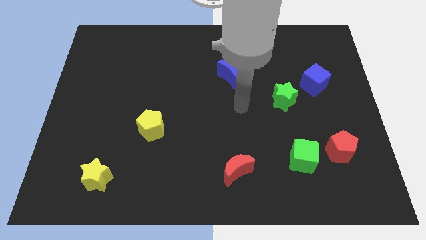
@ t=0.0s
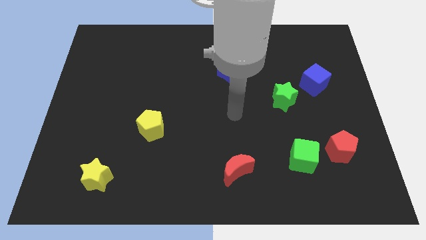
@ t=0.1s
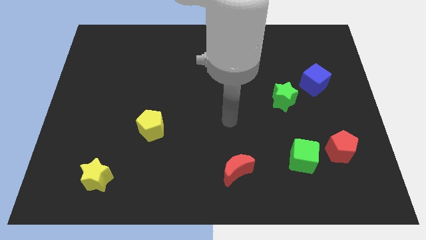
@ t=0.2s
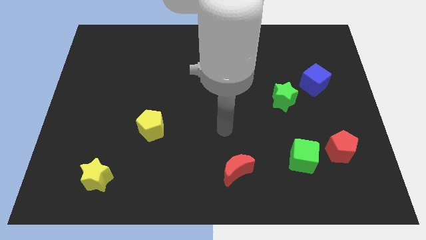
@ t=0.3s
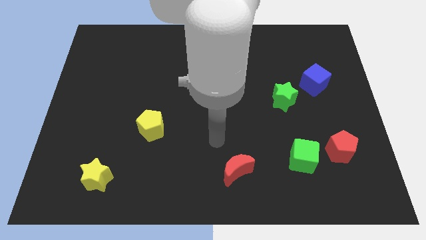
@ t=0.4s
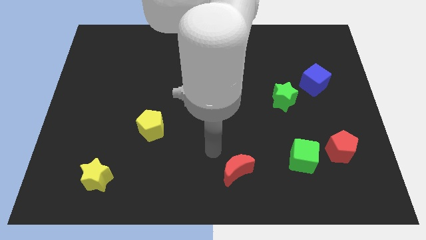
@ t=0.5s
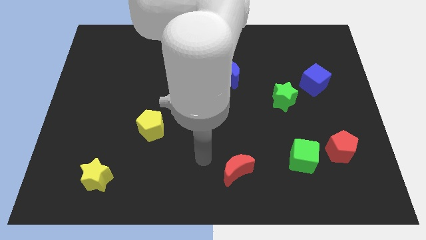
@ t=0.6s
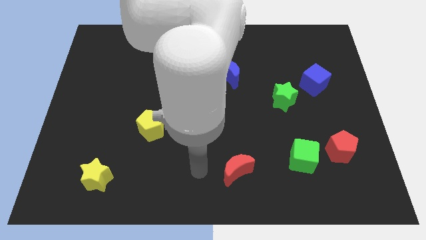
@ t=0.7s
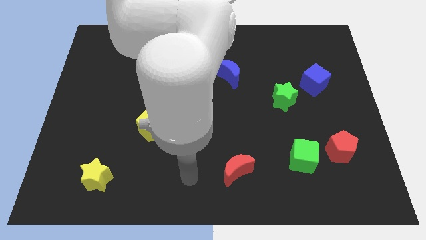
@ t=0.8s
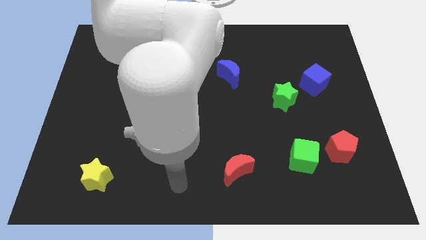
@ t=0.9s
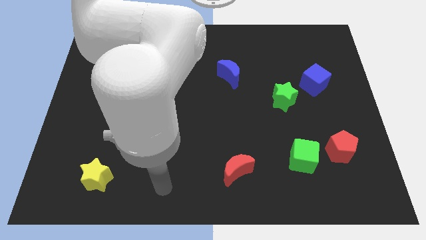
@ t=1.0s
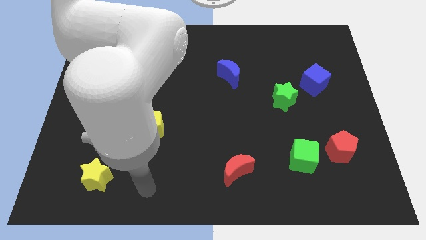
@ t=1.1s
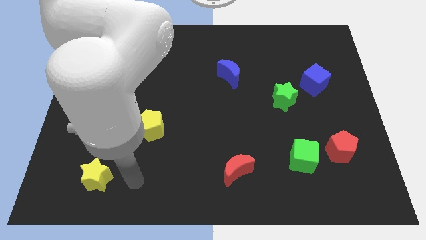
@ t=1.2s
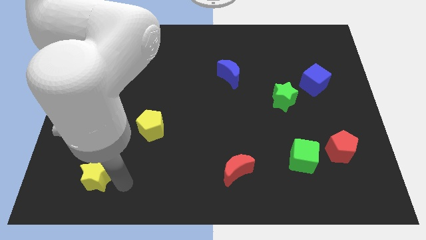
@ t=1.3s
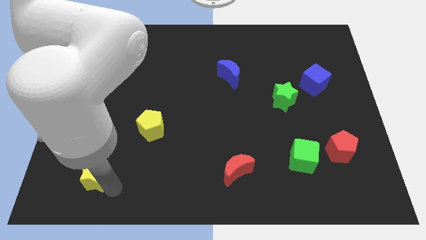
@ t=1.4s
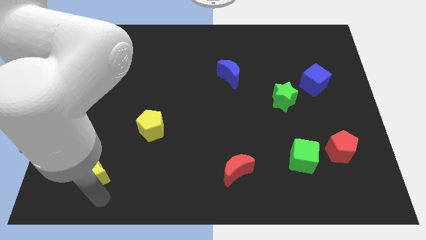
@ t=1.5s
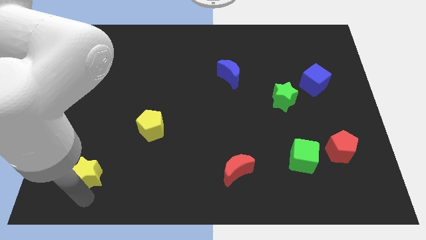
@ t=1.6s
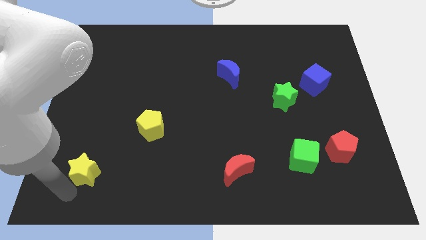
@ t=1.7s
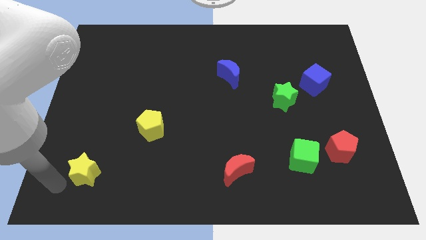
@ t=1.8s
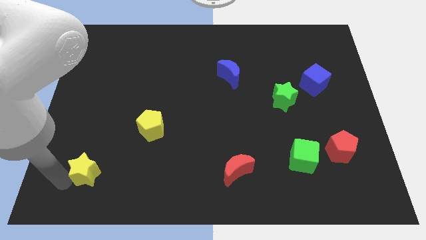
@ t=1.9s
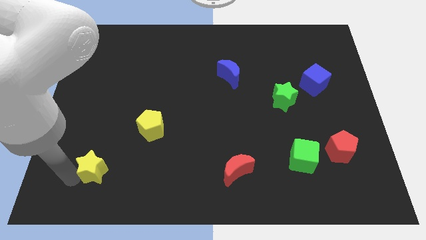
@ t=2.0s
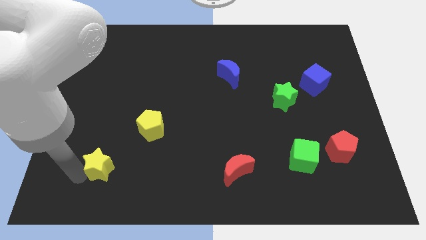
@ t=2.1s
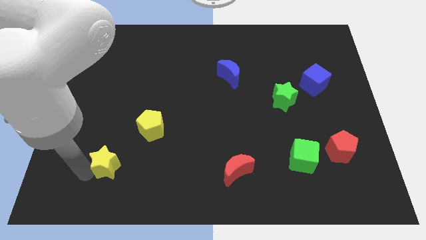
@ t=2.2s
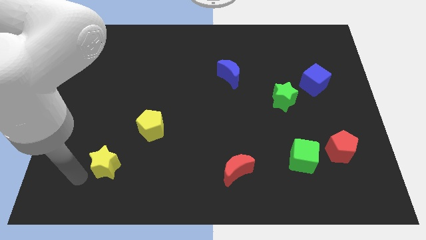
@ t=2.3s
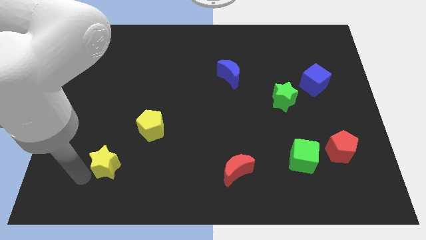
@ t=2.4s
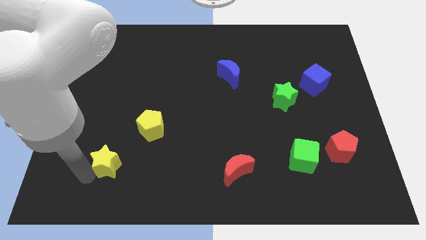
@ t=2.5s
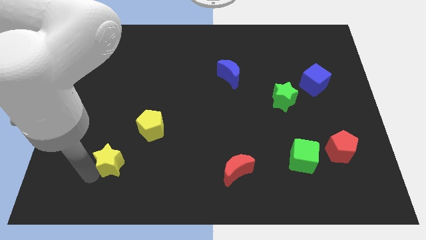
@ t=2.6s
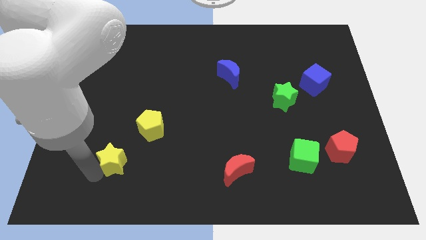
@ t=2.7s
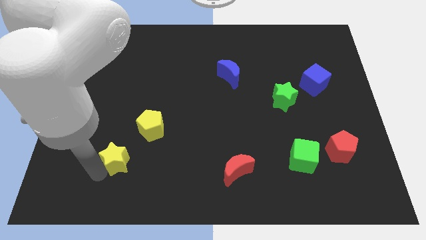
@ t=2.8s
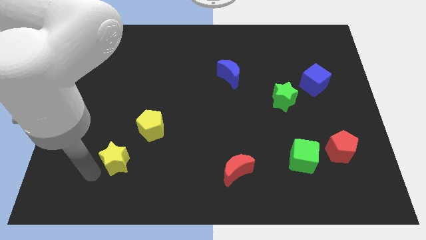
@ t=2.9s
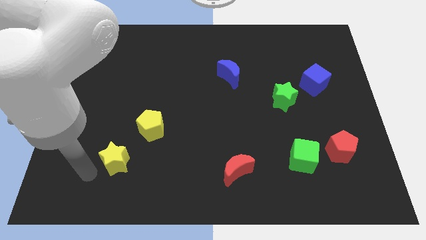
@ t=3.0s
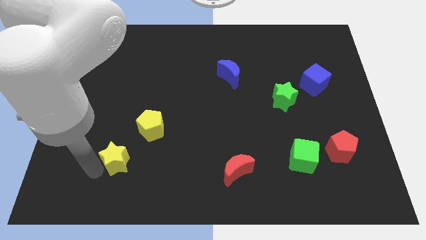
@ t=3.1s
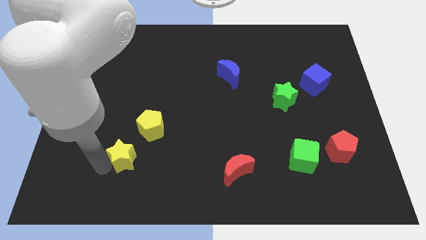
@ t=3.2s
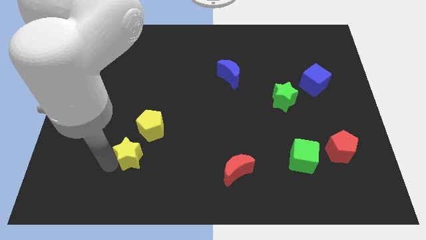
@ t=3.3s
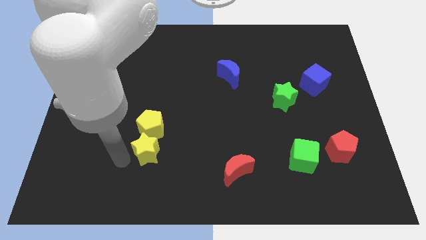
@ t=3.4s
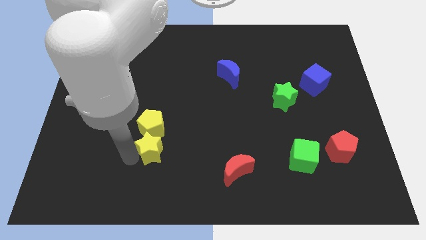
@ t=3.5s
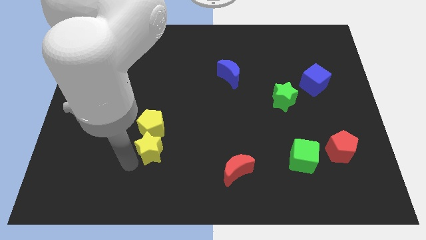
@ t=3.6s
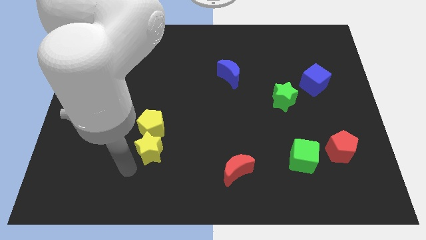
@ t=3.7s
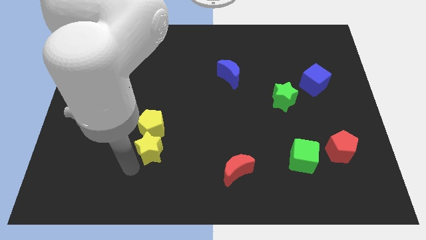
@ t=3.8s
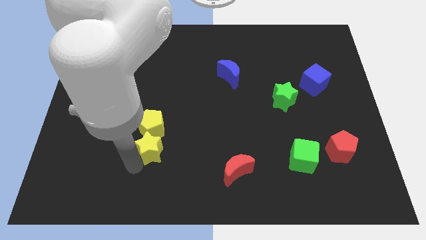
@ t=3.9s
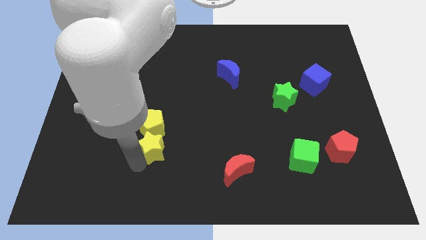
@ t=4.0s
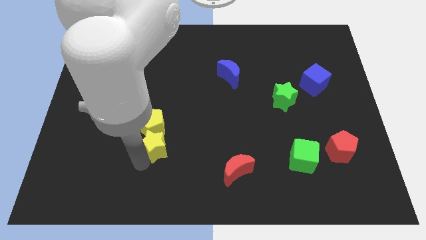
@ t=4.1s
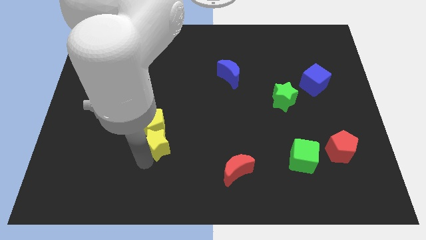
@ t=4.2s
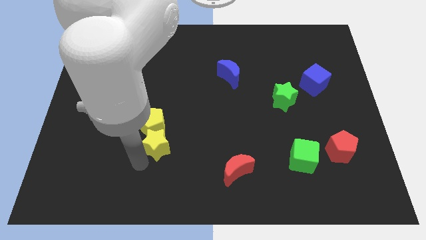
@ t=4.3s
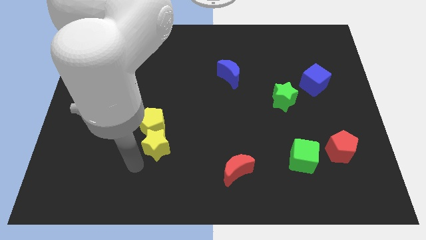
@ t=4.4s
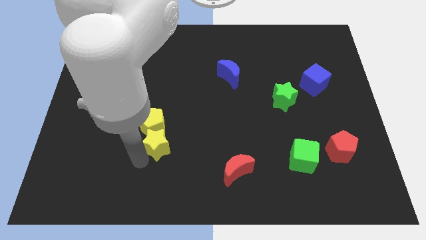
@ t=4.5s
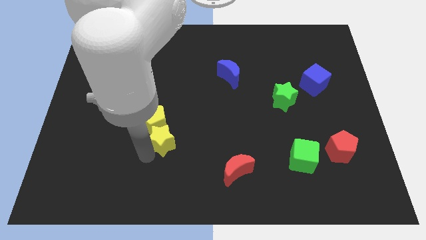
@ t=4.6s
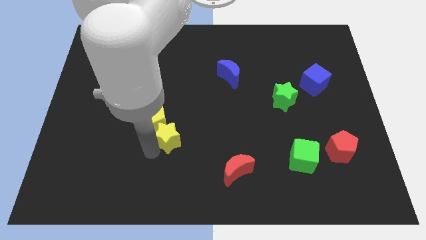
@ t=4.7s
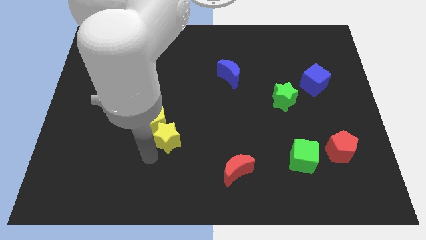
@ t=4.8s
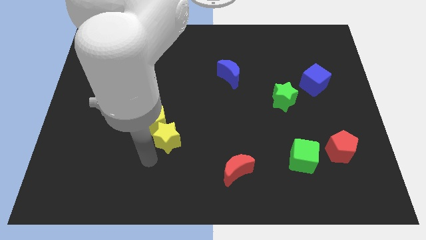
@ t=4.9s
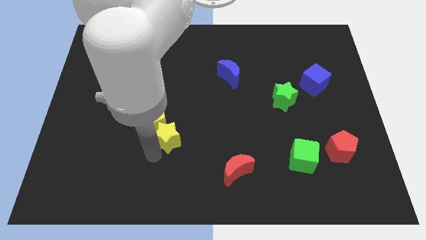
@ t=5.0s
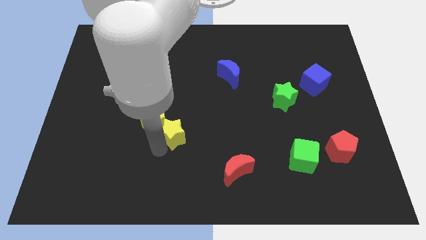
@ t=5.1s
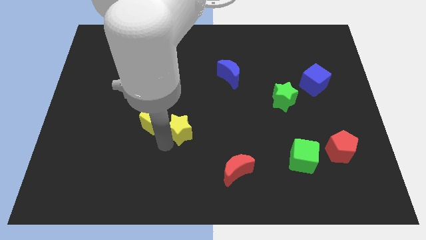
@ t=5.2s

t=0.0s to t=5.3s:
put the yellow star to the center
